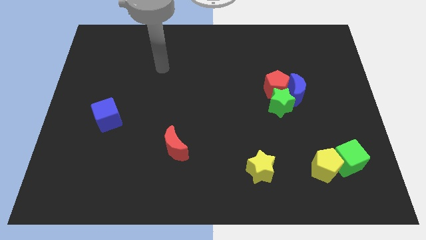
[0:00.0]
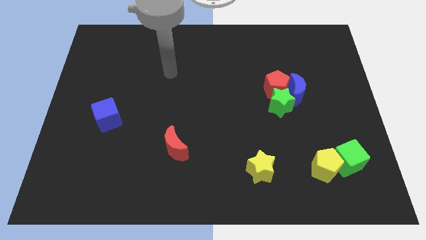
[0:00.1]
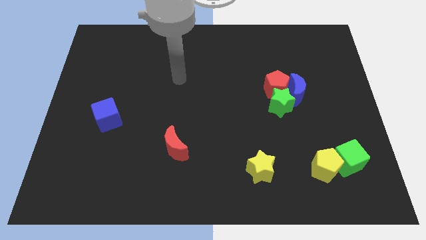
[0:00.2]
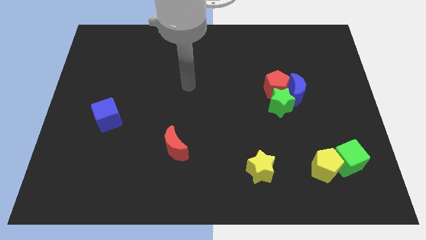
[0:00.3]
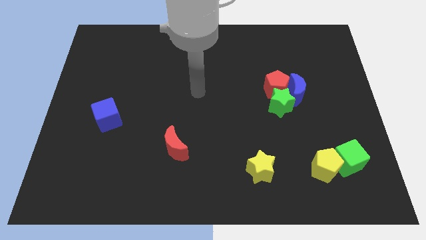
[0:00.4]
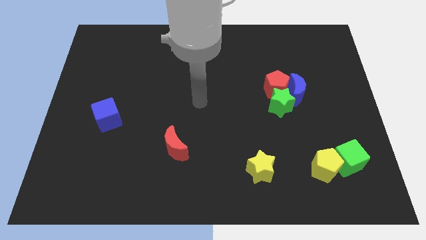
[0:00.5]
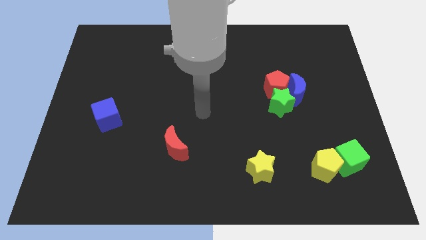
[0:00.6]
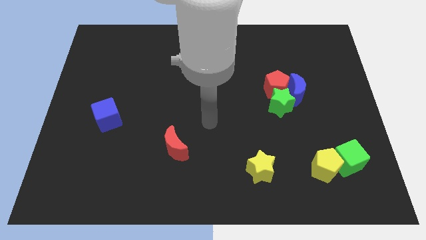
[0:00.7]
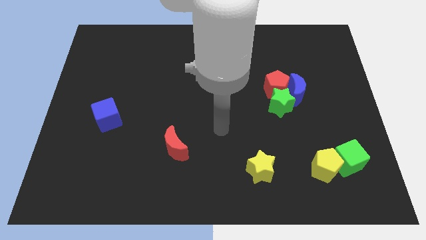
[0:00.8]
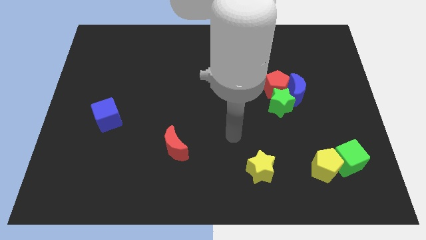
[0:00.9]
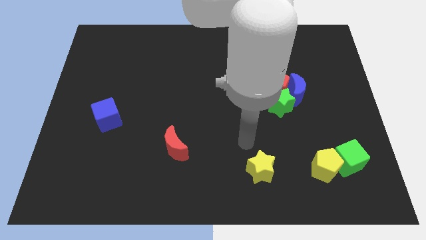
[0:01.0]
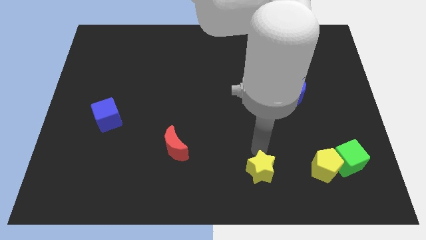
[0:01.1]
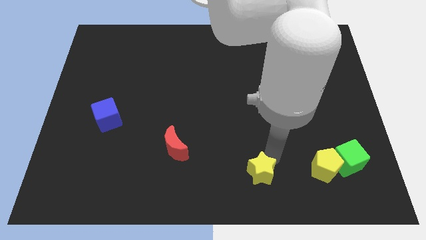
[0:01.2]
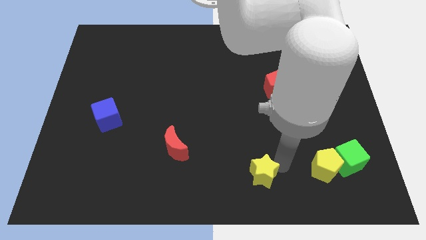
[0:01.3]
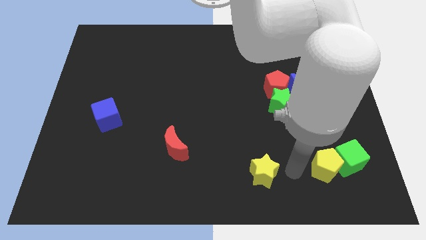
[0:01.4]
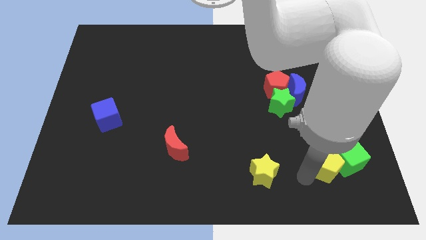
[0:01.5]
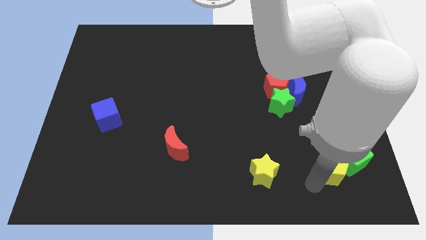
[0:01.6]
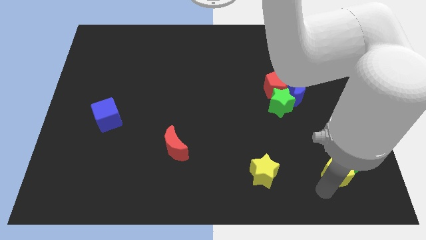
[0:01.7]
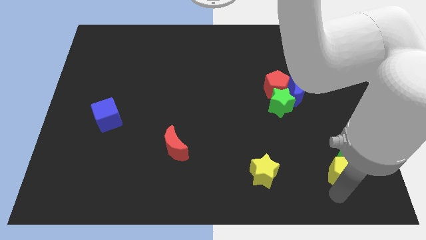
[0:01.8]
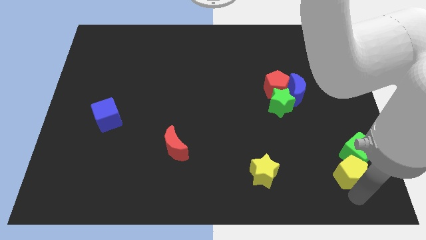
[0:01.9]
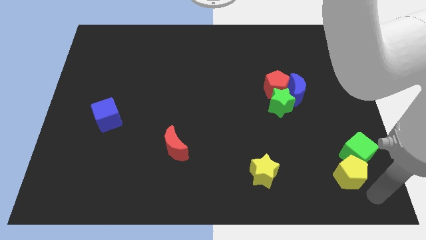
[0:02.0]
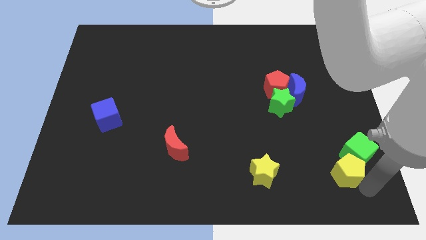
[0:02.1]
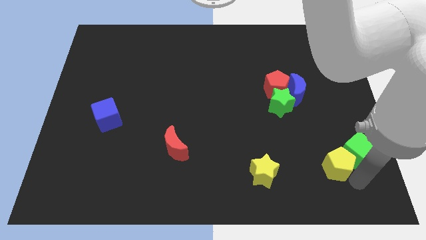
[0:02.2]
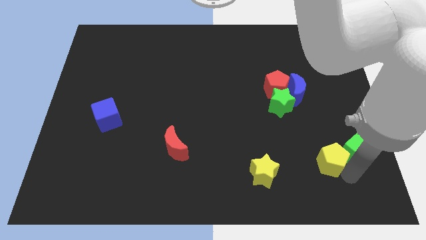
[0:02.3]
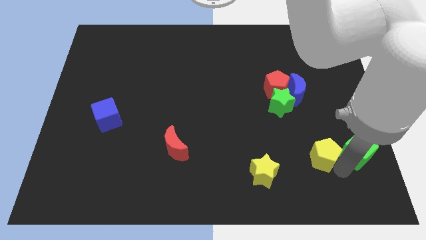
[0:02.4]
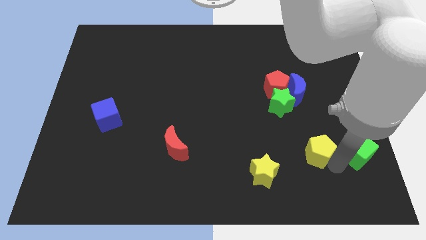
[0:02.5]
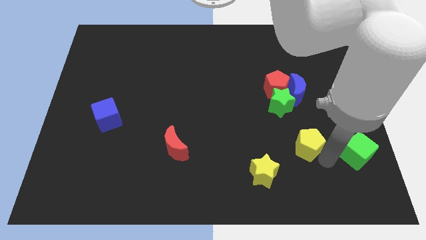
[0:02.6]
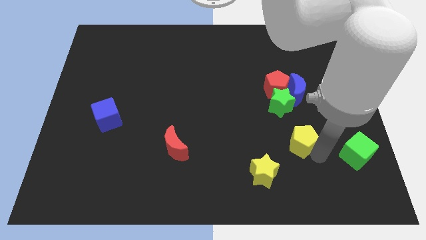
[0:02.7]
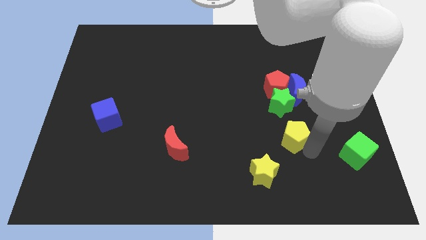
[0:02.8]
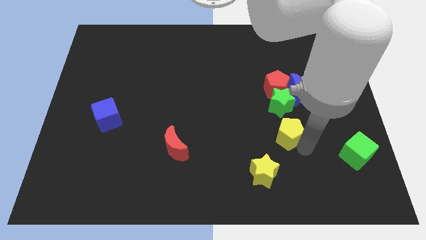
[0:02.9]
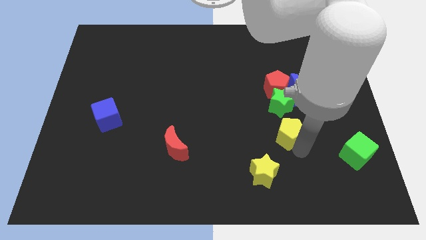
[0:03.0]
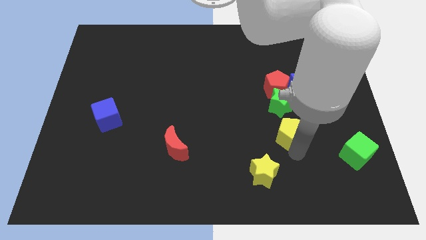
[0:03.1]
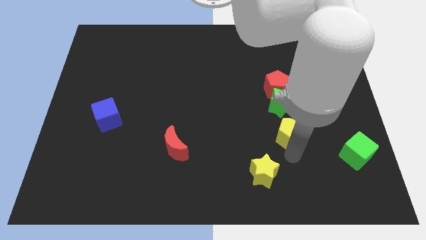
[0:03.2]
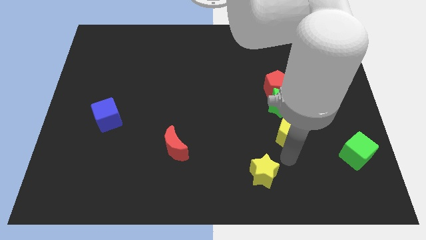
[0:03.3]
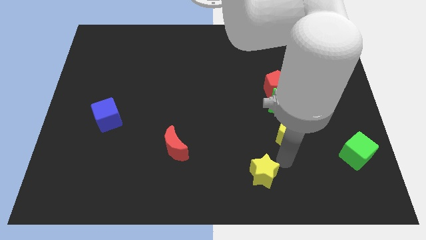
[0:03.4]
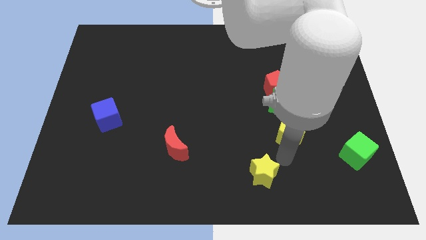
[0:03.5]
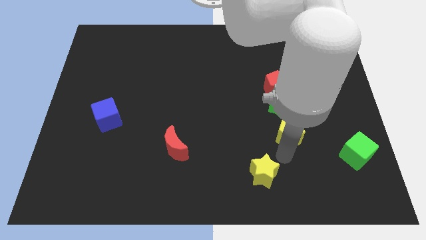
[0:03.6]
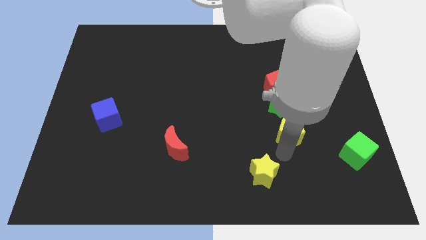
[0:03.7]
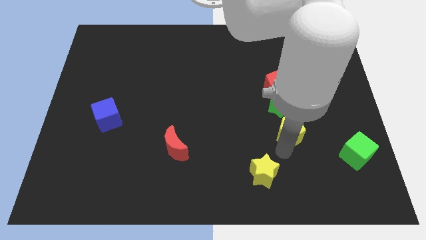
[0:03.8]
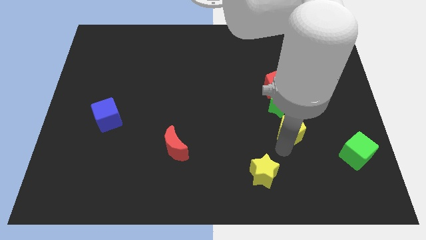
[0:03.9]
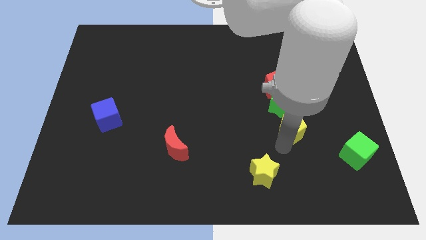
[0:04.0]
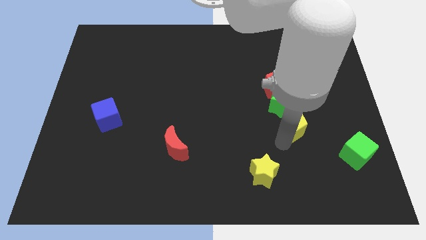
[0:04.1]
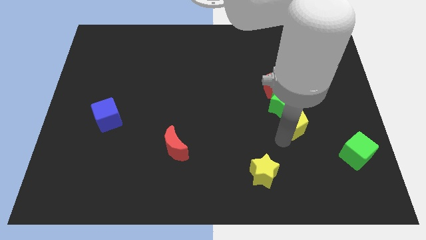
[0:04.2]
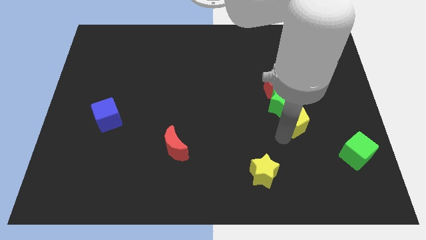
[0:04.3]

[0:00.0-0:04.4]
push the yellow pentagon to the green star

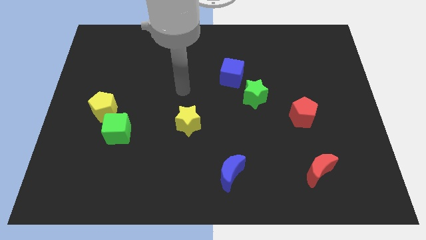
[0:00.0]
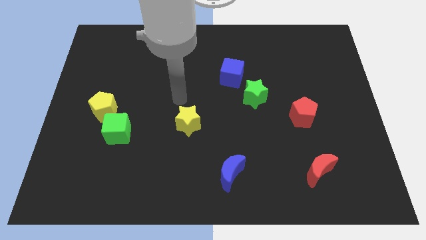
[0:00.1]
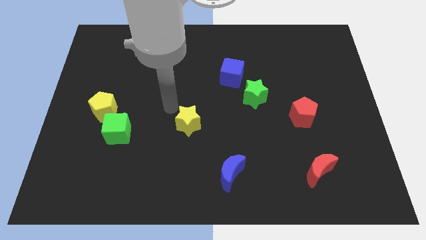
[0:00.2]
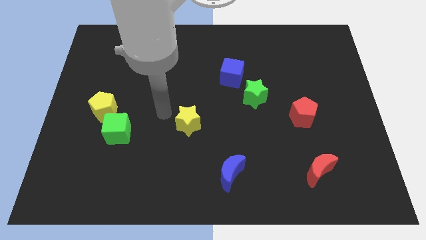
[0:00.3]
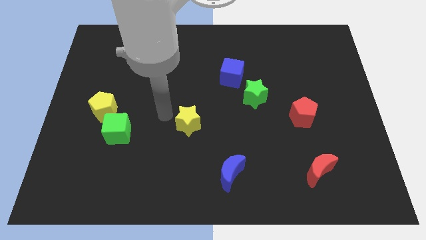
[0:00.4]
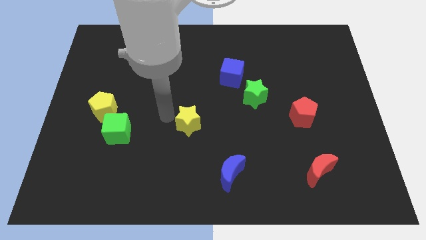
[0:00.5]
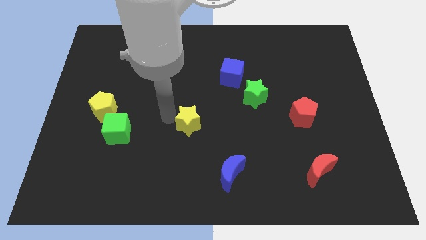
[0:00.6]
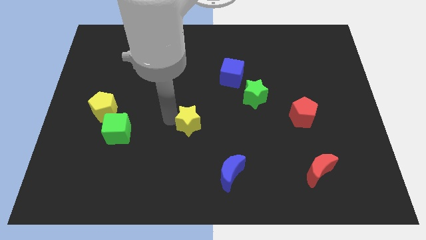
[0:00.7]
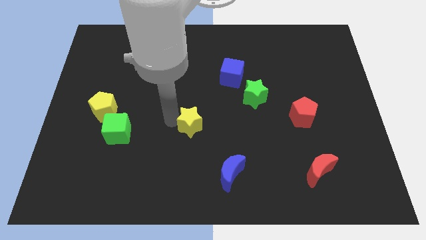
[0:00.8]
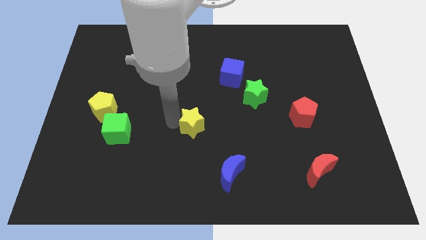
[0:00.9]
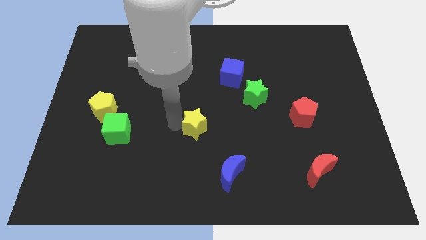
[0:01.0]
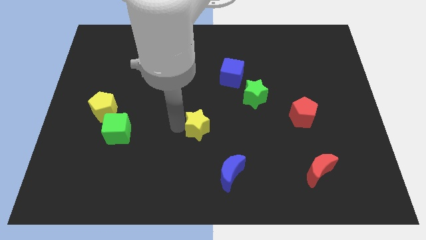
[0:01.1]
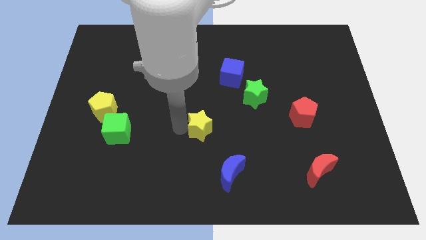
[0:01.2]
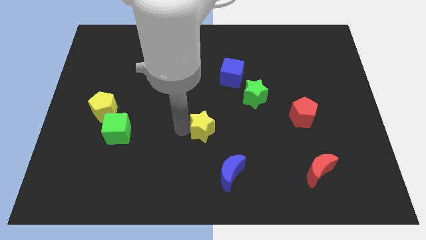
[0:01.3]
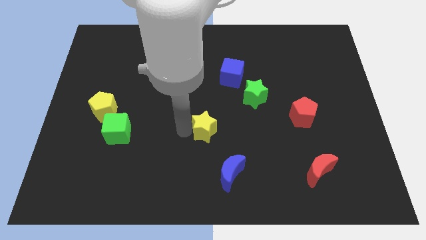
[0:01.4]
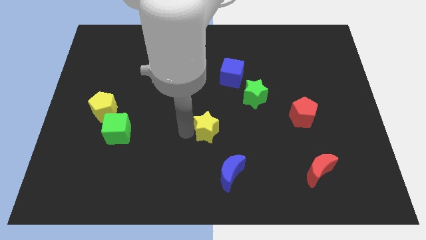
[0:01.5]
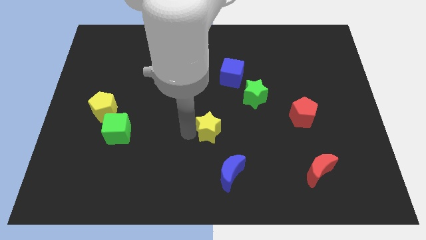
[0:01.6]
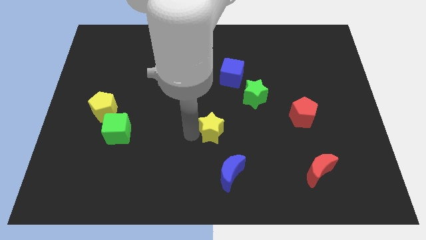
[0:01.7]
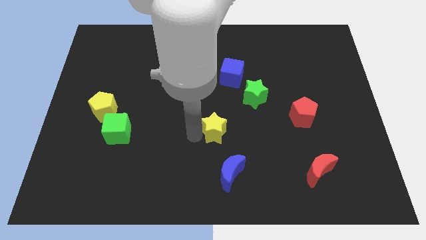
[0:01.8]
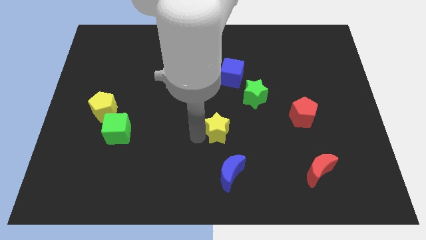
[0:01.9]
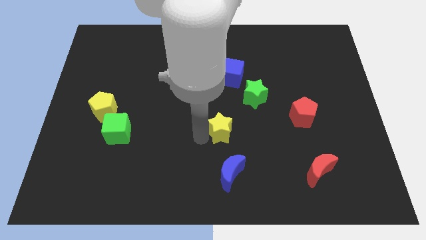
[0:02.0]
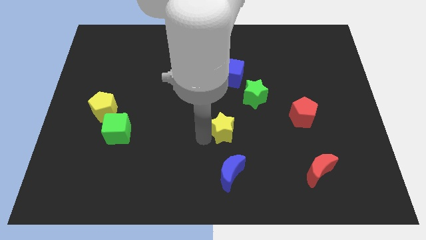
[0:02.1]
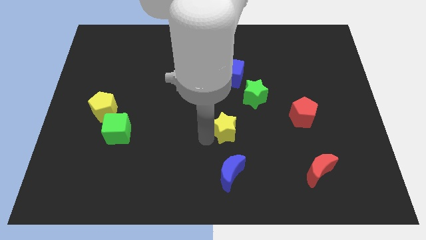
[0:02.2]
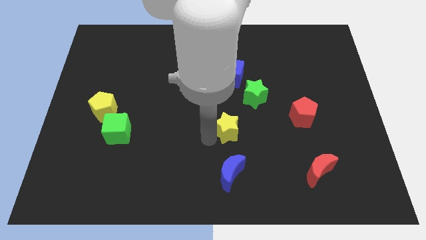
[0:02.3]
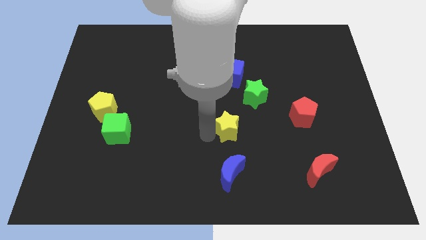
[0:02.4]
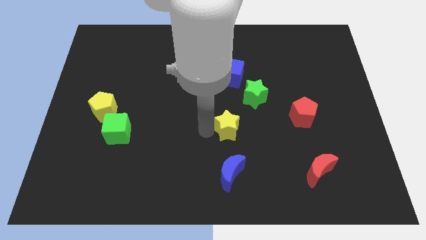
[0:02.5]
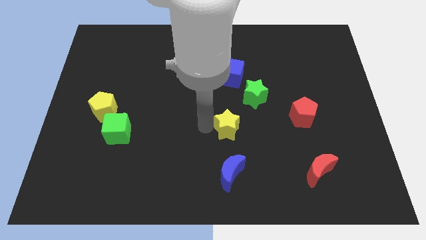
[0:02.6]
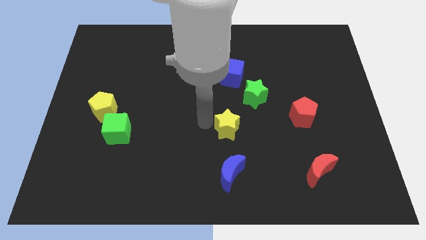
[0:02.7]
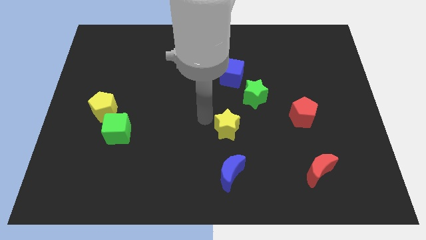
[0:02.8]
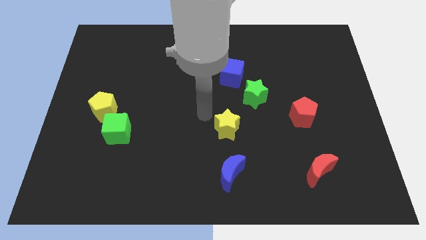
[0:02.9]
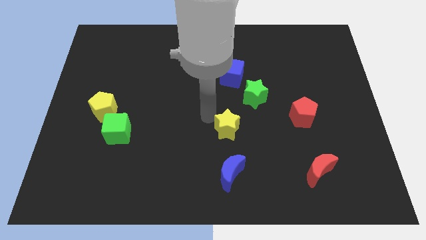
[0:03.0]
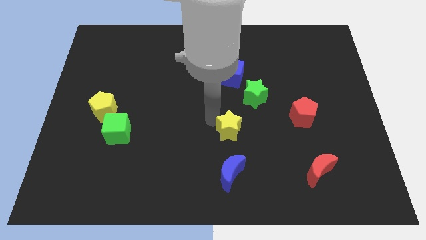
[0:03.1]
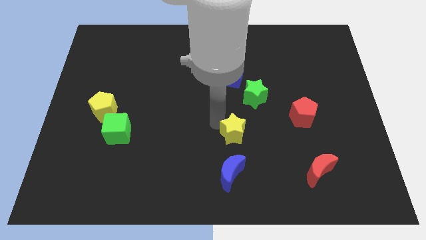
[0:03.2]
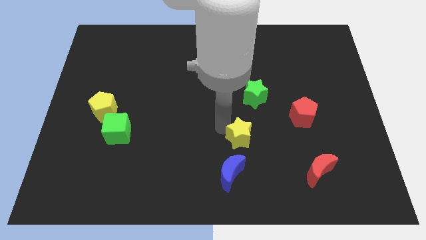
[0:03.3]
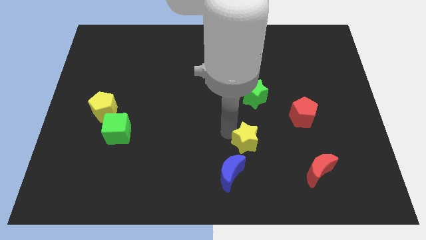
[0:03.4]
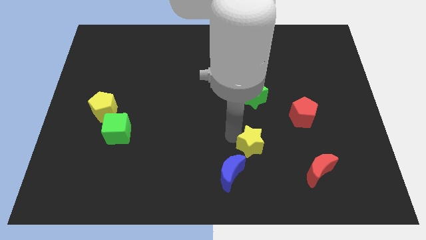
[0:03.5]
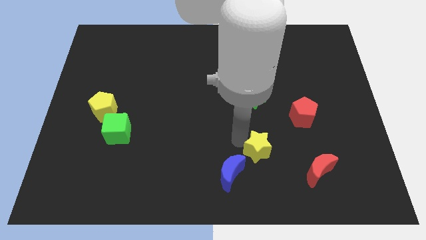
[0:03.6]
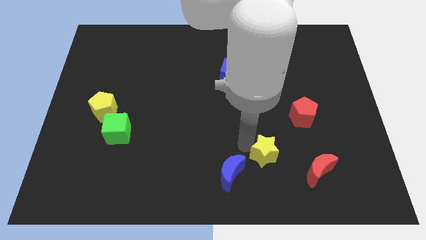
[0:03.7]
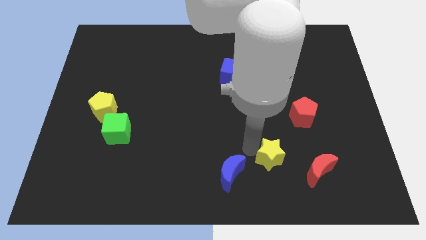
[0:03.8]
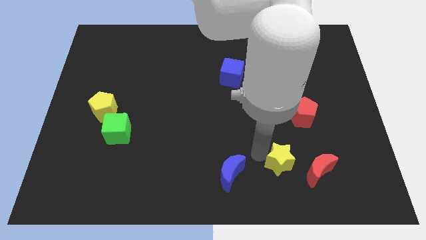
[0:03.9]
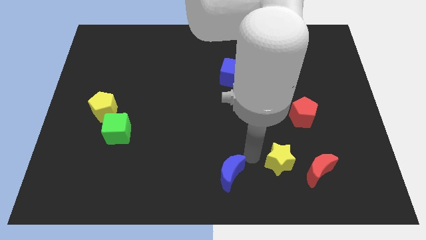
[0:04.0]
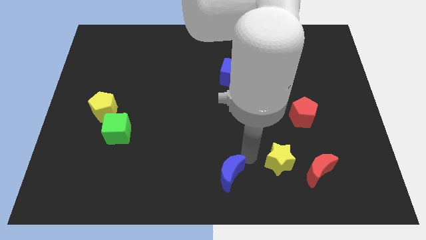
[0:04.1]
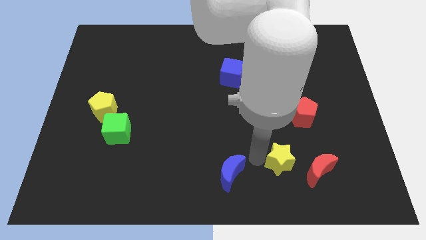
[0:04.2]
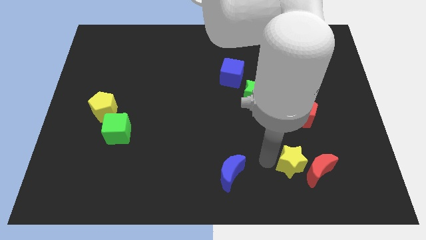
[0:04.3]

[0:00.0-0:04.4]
push the yellow star next to the red moon
